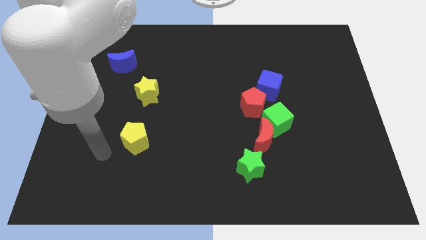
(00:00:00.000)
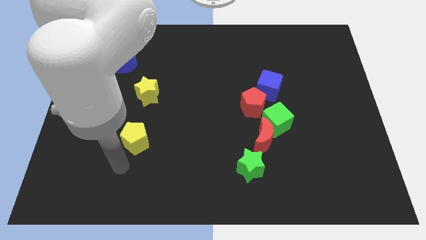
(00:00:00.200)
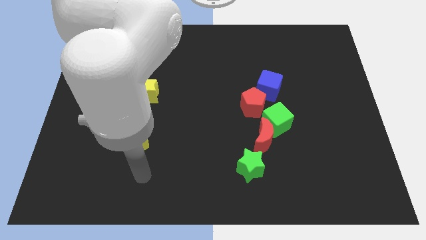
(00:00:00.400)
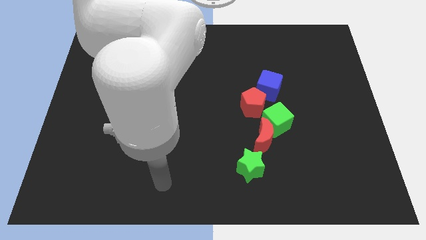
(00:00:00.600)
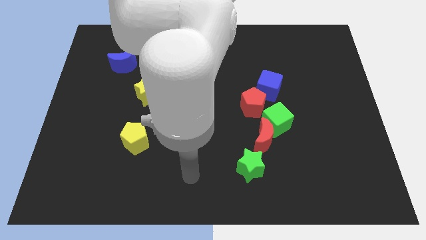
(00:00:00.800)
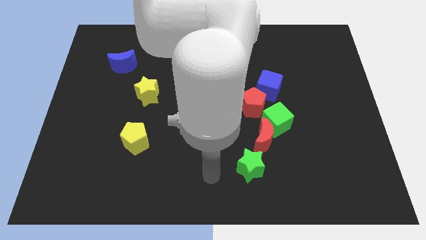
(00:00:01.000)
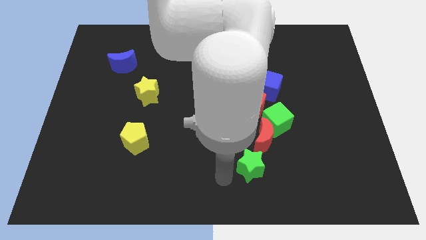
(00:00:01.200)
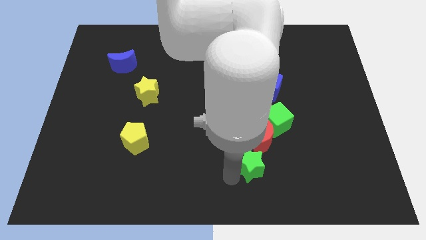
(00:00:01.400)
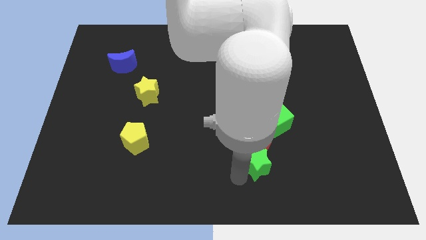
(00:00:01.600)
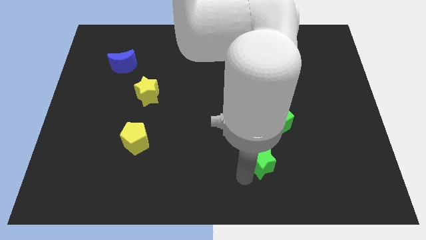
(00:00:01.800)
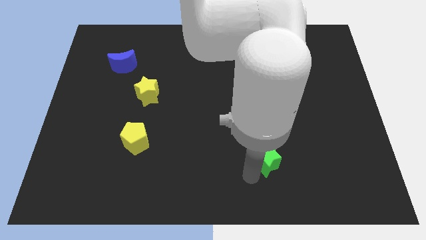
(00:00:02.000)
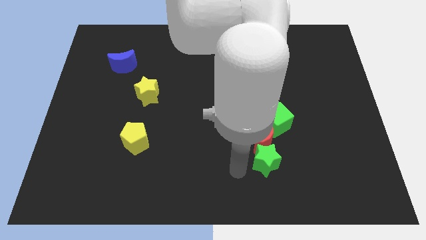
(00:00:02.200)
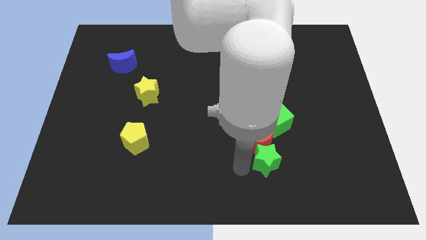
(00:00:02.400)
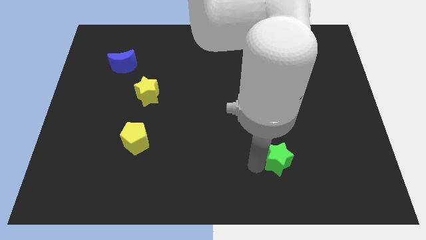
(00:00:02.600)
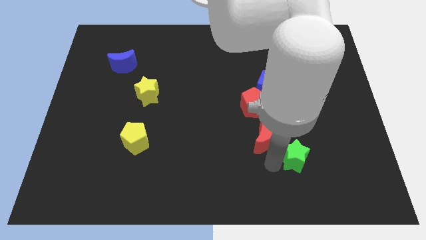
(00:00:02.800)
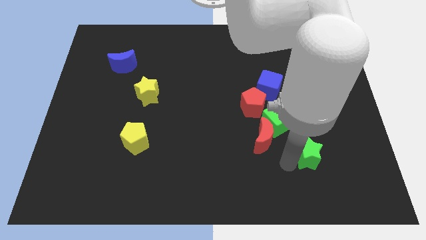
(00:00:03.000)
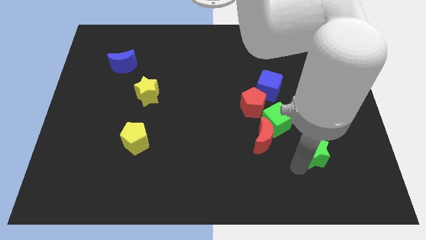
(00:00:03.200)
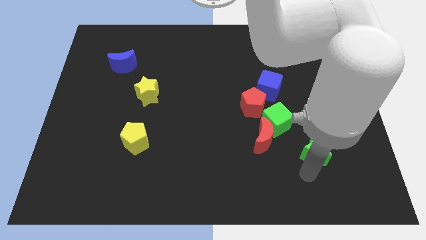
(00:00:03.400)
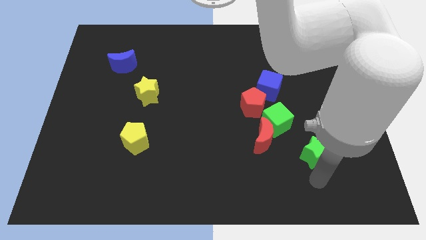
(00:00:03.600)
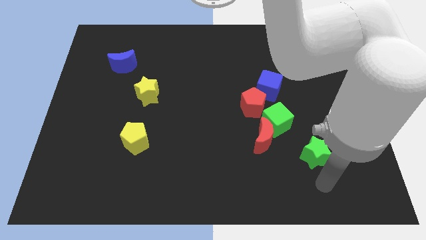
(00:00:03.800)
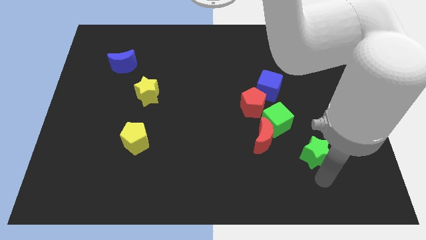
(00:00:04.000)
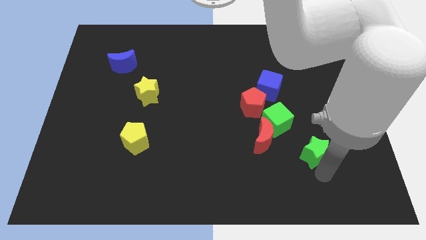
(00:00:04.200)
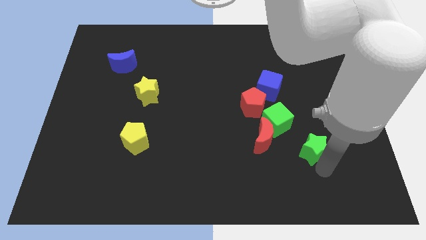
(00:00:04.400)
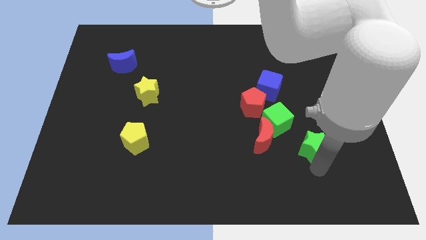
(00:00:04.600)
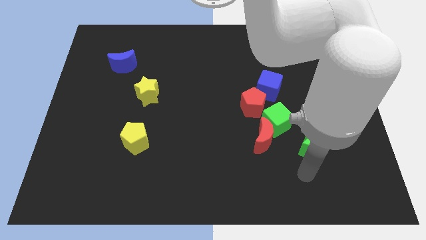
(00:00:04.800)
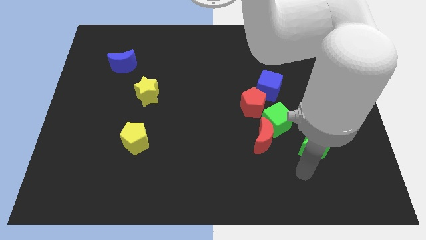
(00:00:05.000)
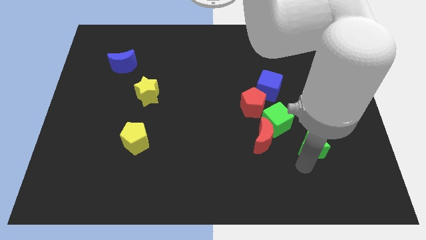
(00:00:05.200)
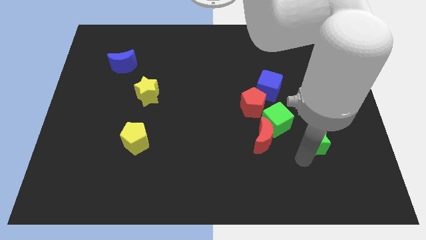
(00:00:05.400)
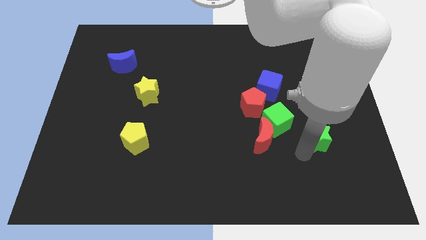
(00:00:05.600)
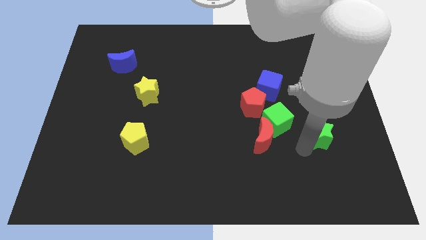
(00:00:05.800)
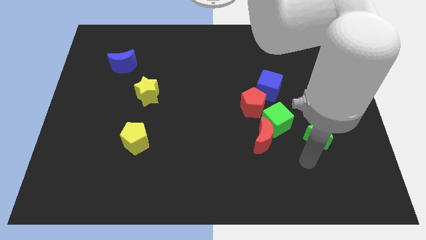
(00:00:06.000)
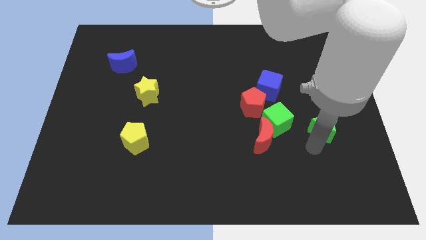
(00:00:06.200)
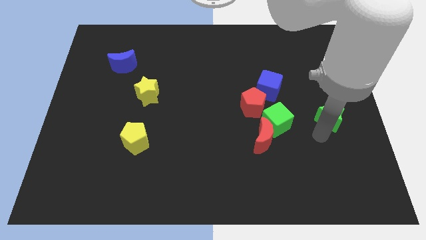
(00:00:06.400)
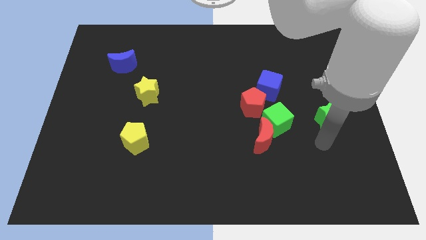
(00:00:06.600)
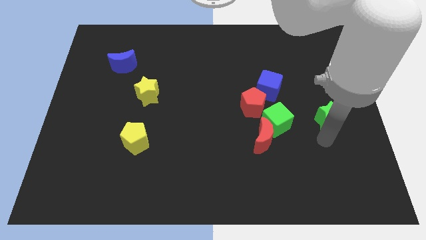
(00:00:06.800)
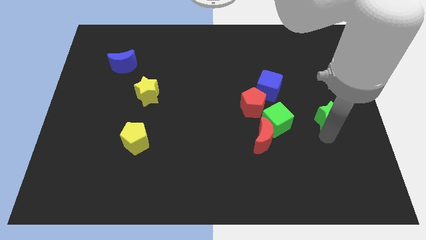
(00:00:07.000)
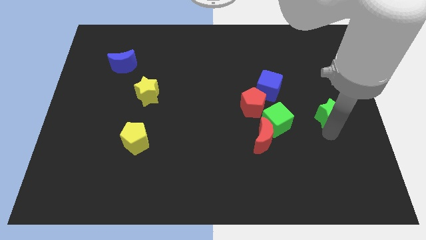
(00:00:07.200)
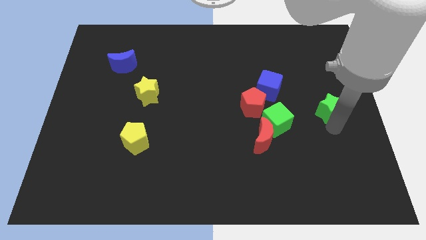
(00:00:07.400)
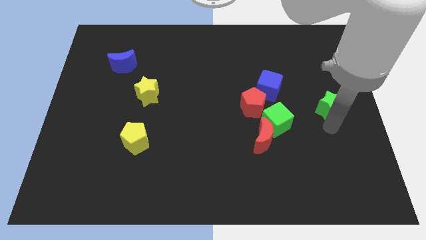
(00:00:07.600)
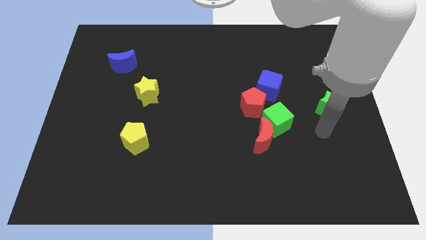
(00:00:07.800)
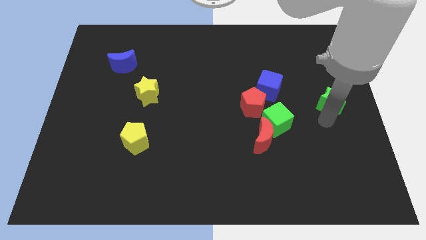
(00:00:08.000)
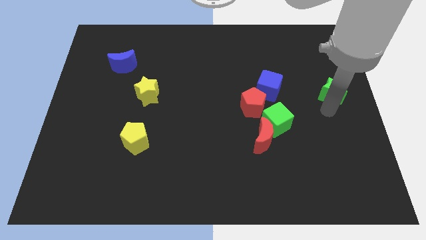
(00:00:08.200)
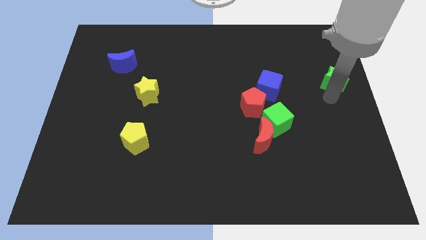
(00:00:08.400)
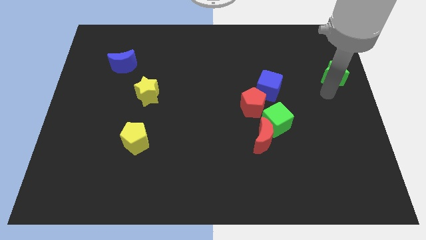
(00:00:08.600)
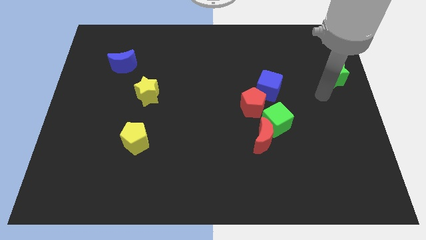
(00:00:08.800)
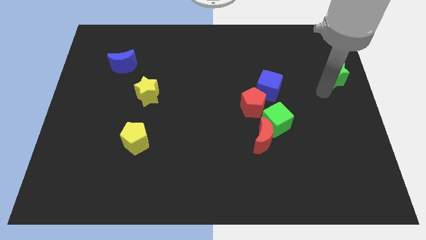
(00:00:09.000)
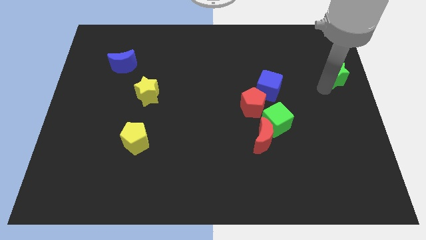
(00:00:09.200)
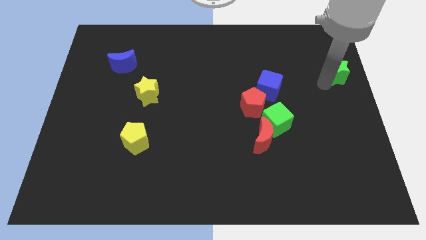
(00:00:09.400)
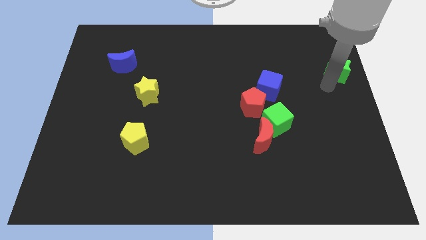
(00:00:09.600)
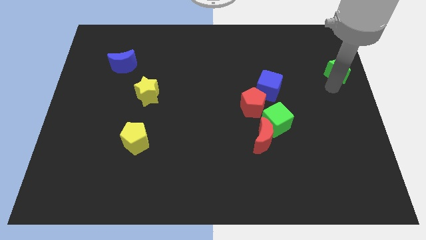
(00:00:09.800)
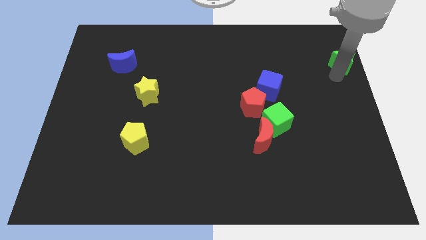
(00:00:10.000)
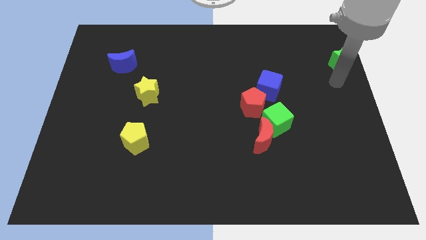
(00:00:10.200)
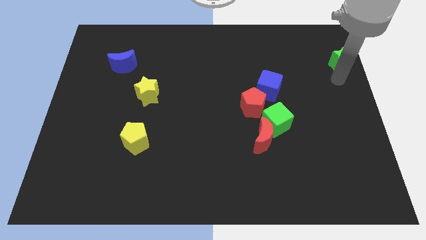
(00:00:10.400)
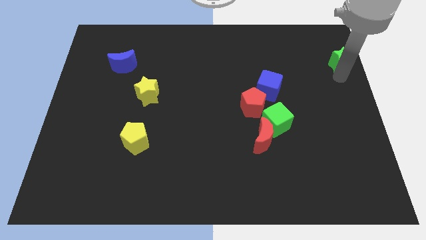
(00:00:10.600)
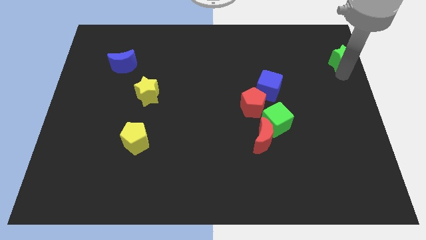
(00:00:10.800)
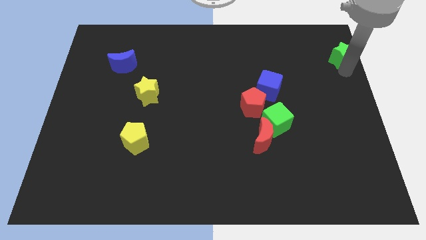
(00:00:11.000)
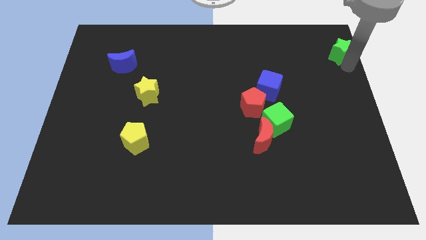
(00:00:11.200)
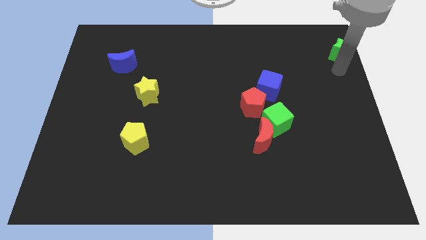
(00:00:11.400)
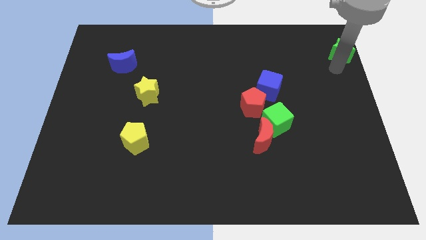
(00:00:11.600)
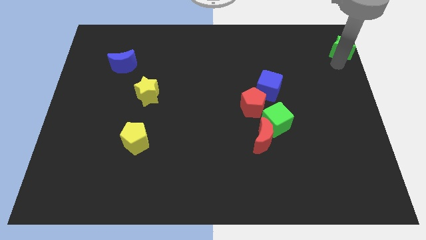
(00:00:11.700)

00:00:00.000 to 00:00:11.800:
push the green star to the top right
